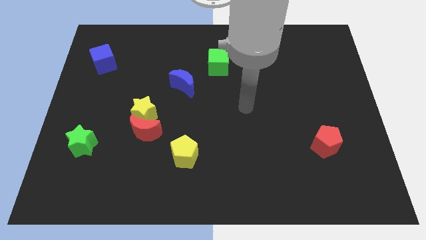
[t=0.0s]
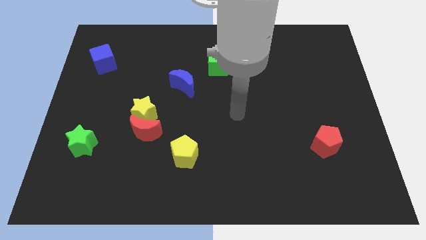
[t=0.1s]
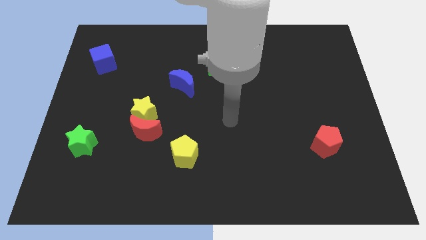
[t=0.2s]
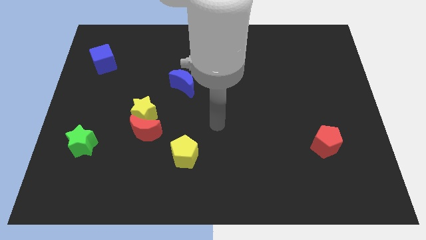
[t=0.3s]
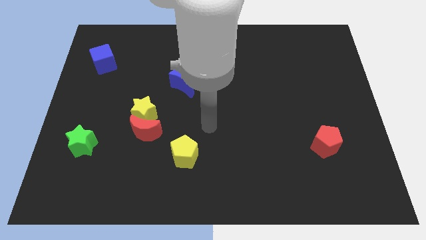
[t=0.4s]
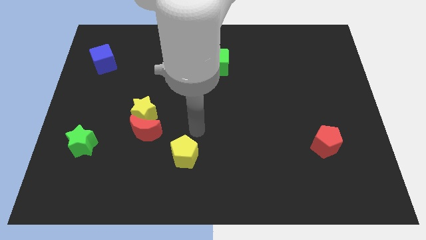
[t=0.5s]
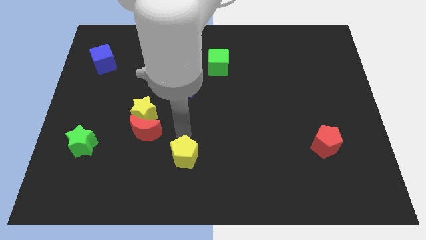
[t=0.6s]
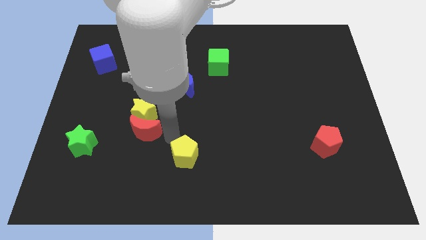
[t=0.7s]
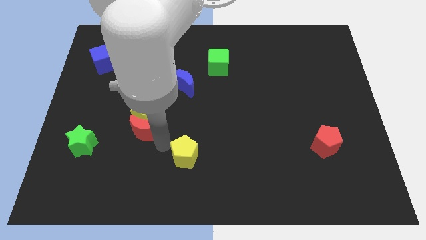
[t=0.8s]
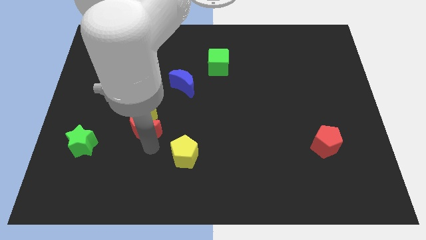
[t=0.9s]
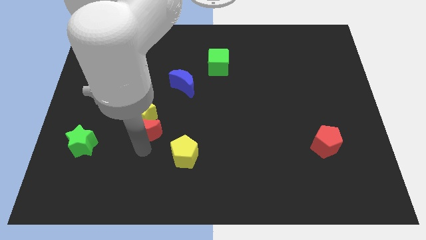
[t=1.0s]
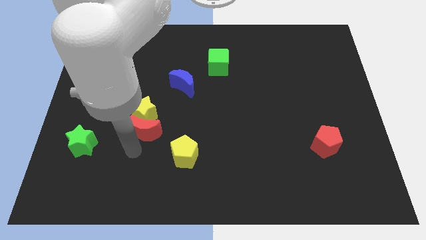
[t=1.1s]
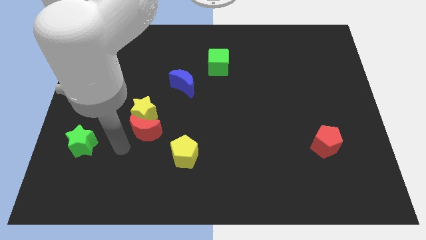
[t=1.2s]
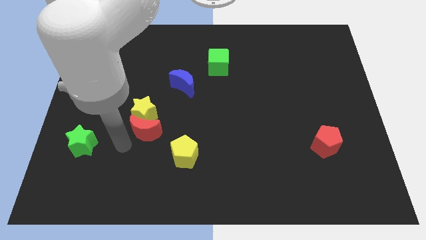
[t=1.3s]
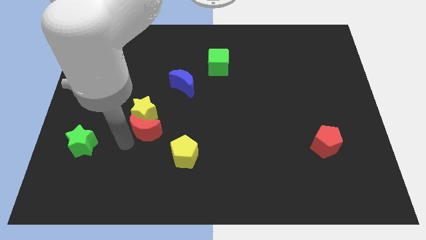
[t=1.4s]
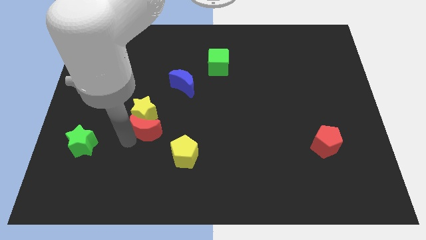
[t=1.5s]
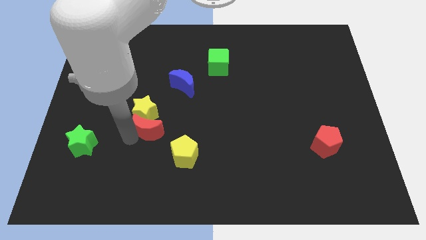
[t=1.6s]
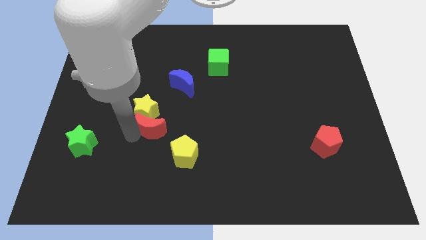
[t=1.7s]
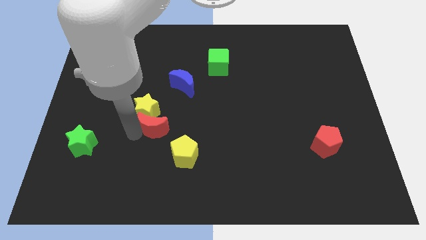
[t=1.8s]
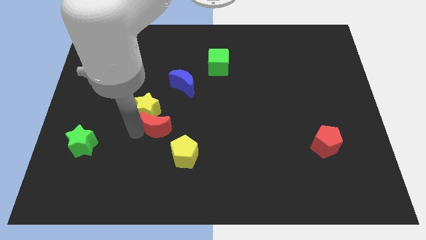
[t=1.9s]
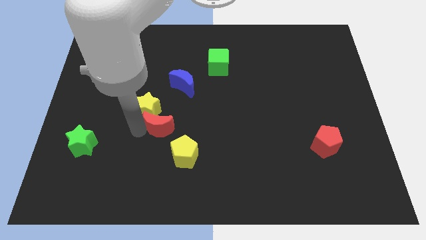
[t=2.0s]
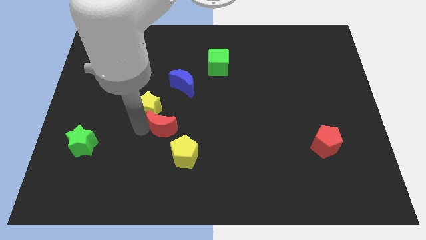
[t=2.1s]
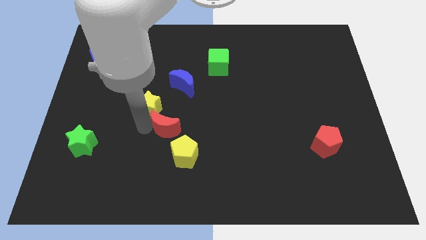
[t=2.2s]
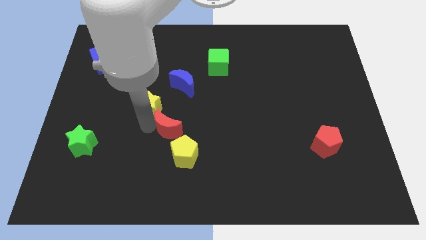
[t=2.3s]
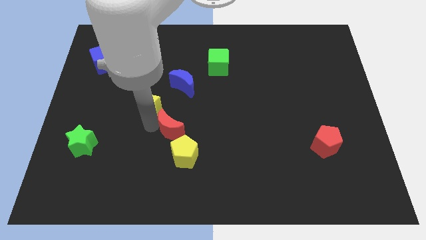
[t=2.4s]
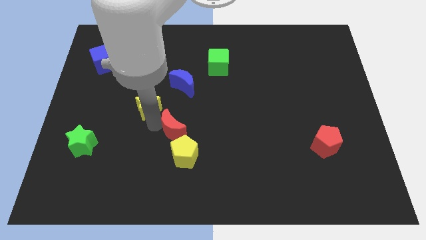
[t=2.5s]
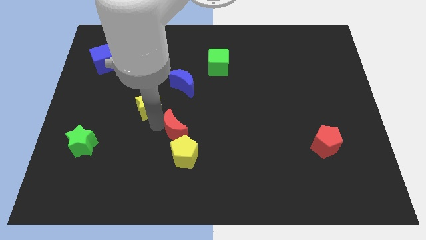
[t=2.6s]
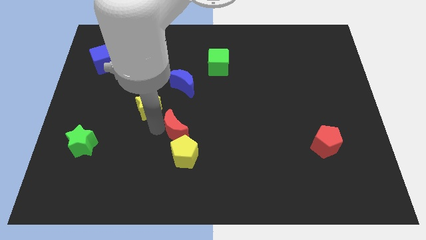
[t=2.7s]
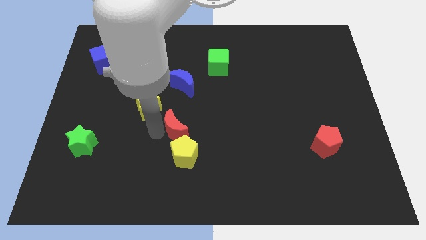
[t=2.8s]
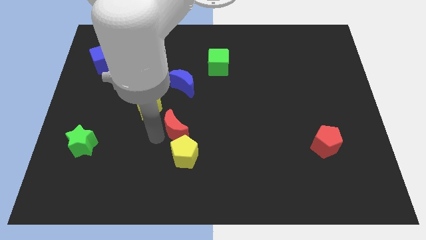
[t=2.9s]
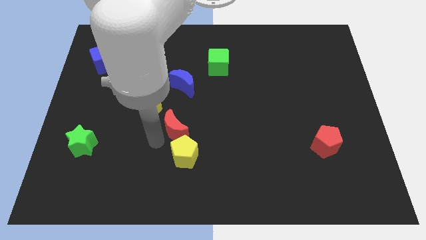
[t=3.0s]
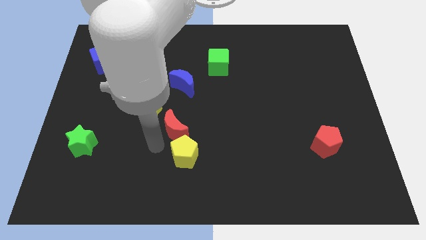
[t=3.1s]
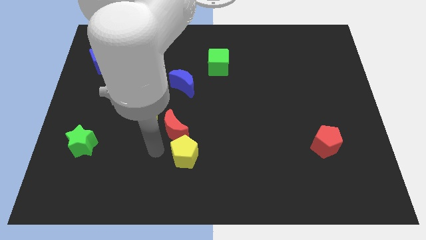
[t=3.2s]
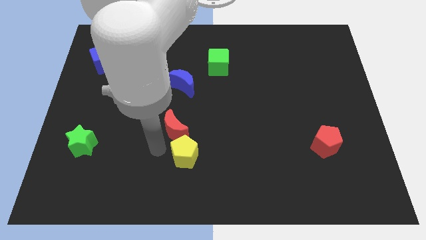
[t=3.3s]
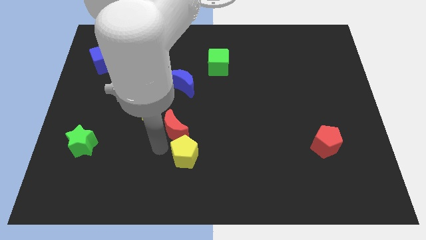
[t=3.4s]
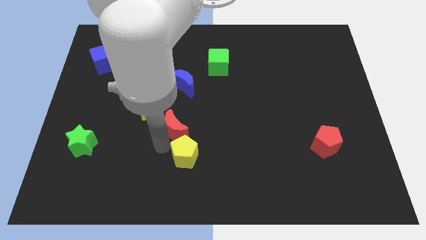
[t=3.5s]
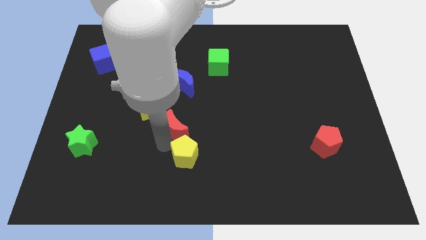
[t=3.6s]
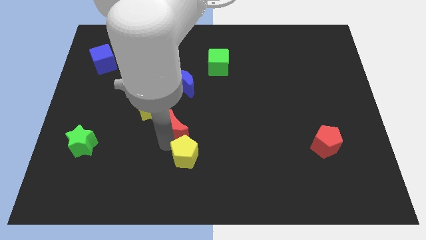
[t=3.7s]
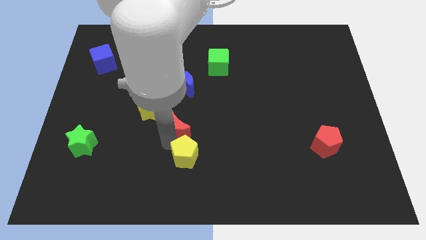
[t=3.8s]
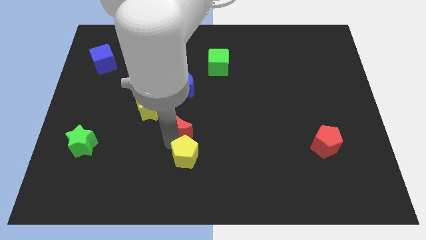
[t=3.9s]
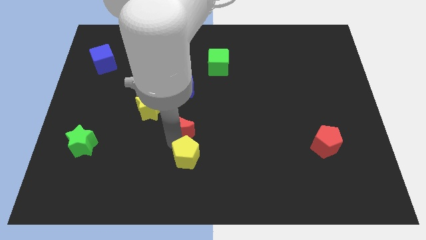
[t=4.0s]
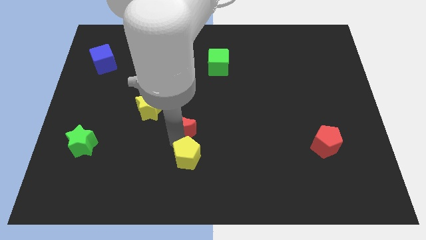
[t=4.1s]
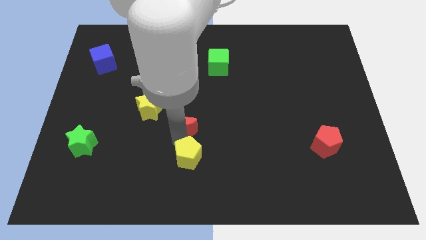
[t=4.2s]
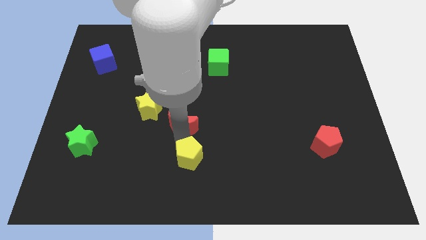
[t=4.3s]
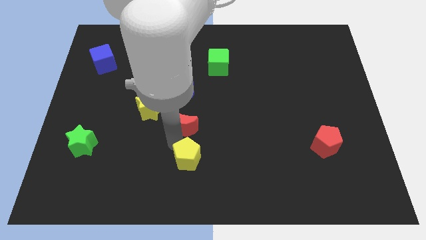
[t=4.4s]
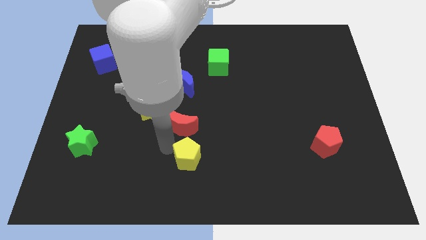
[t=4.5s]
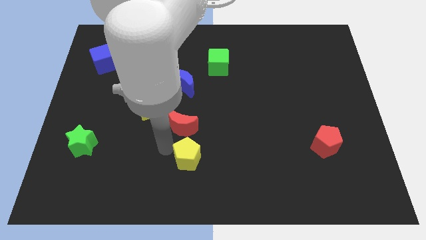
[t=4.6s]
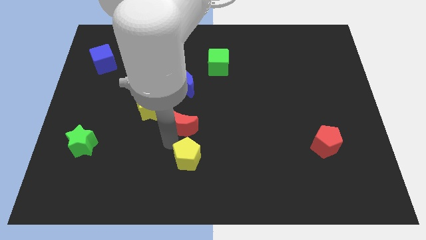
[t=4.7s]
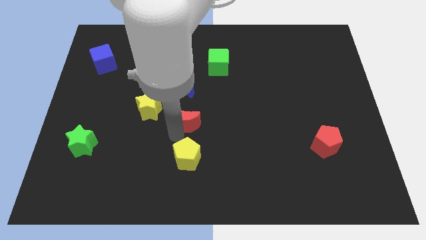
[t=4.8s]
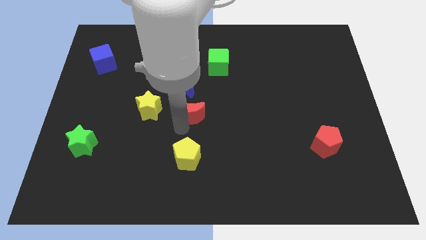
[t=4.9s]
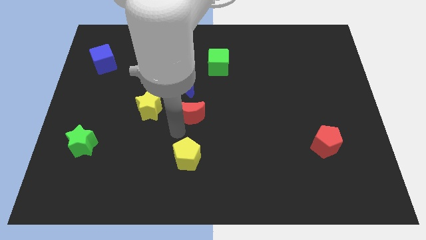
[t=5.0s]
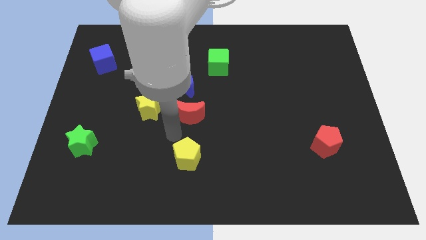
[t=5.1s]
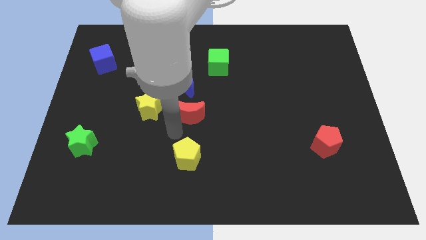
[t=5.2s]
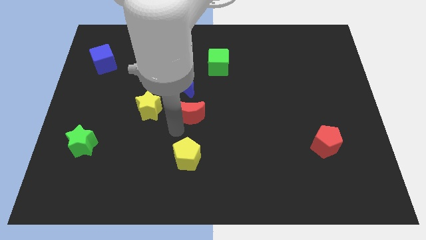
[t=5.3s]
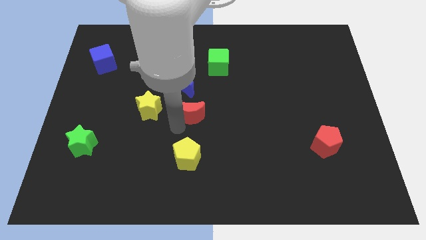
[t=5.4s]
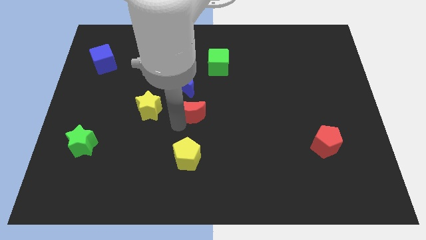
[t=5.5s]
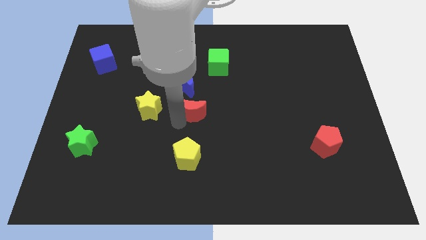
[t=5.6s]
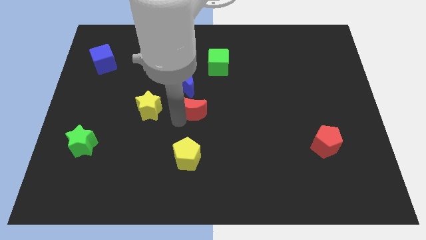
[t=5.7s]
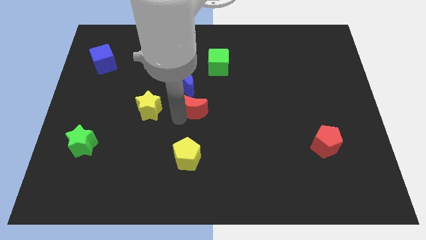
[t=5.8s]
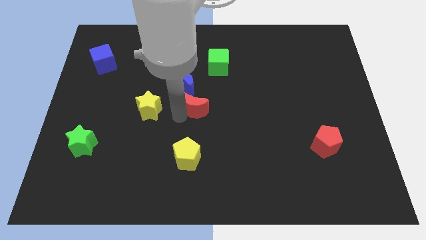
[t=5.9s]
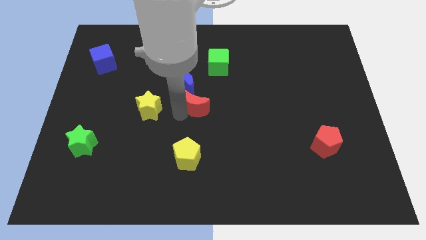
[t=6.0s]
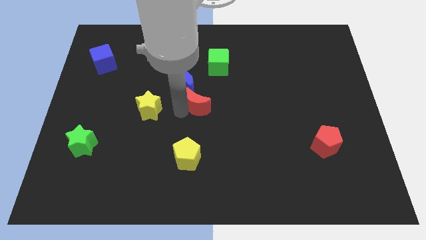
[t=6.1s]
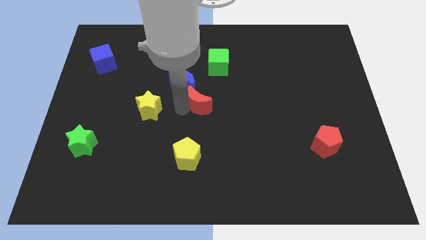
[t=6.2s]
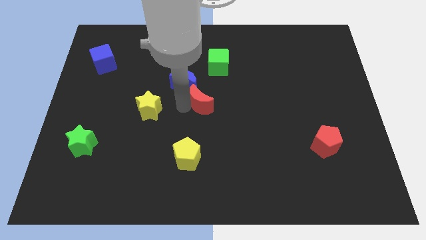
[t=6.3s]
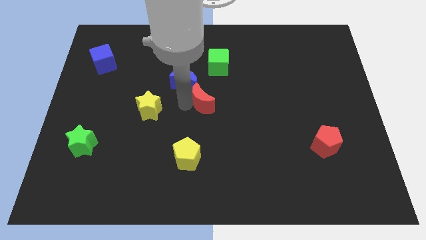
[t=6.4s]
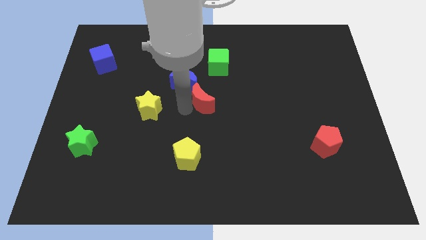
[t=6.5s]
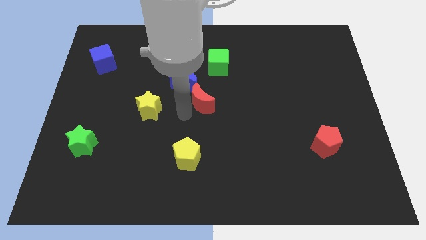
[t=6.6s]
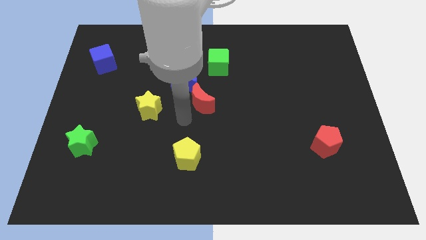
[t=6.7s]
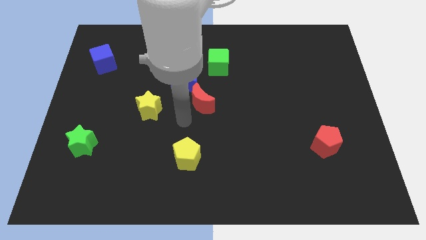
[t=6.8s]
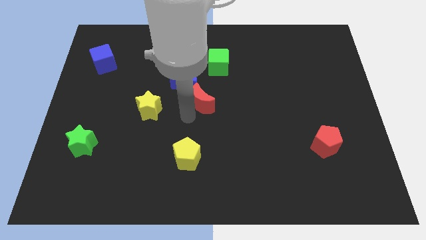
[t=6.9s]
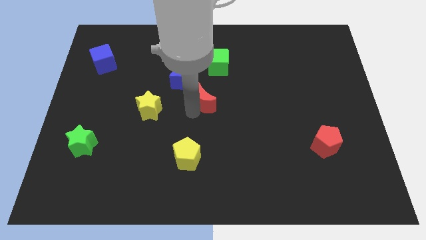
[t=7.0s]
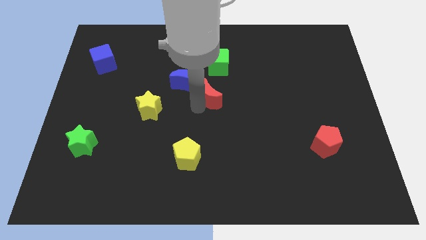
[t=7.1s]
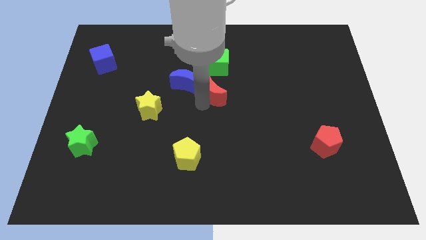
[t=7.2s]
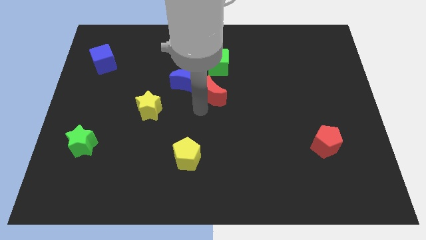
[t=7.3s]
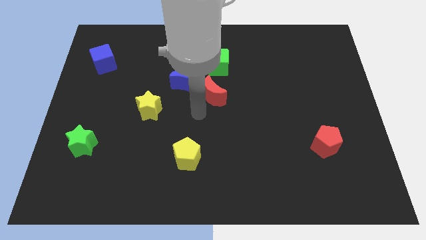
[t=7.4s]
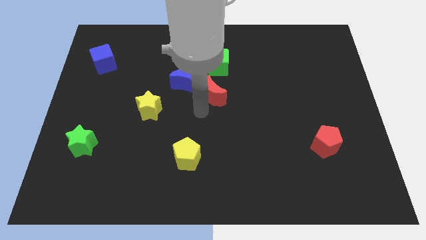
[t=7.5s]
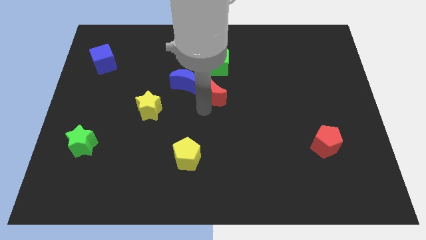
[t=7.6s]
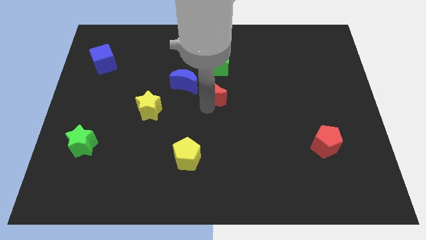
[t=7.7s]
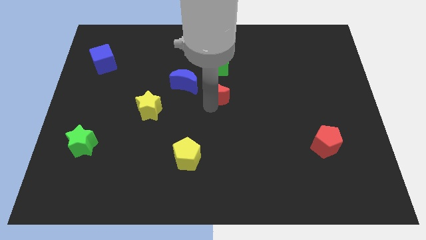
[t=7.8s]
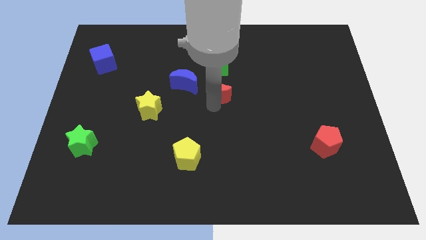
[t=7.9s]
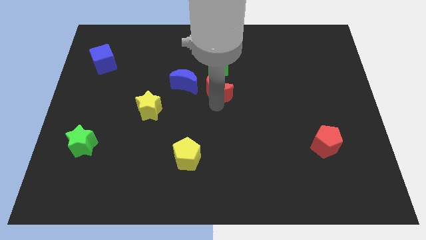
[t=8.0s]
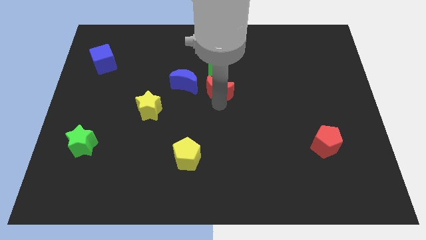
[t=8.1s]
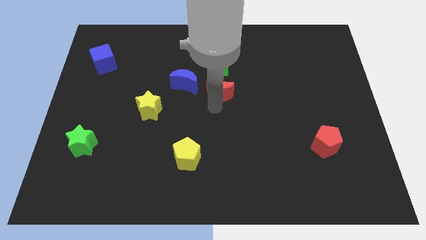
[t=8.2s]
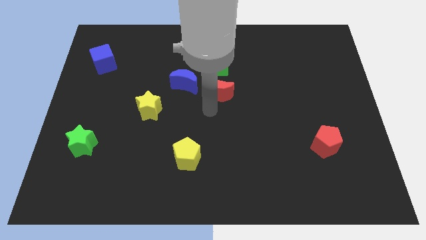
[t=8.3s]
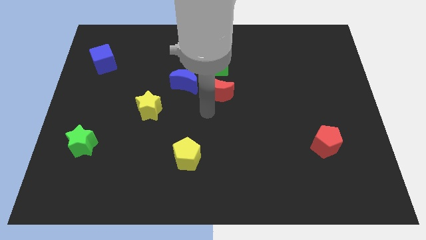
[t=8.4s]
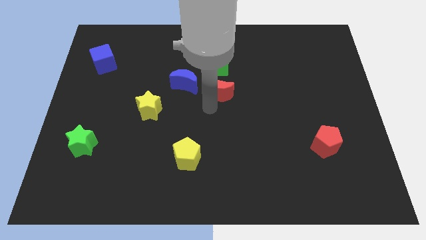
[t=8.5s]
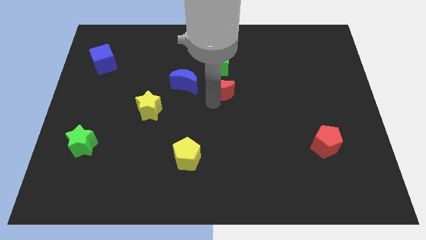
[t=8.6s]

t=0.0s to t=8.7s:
move the red moon upwards and to the right diagonally
